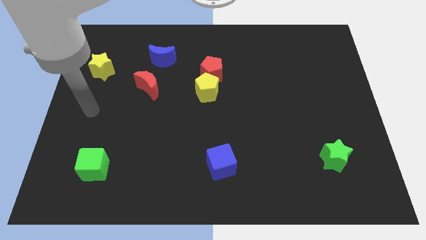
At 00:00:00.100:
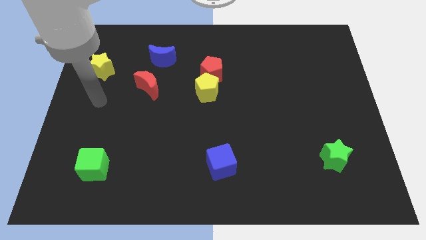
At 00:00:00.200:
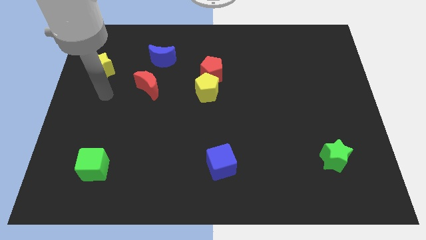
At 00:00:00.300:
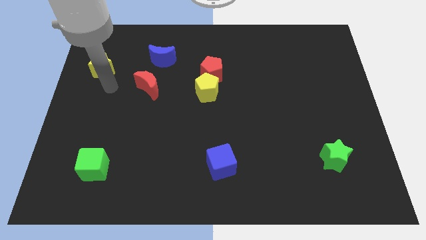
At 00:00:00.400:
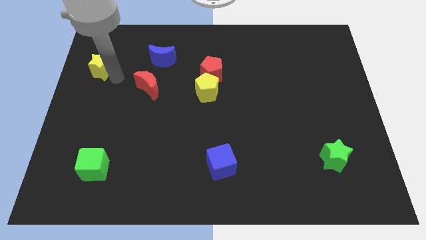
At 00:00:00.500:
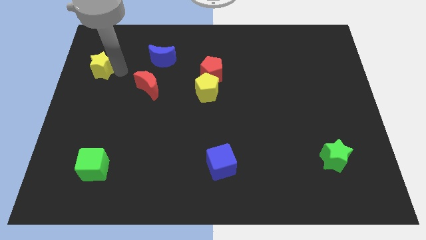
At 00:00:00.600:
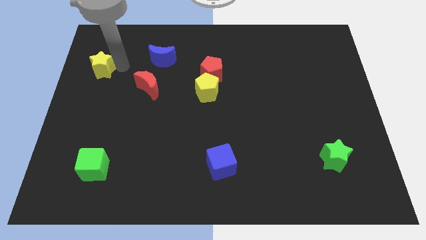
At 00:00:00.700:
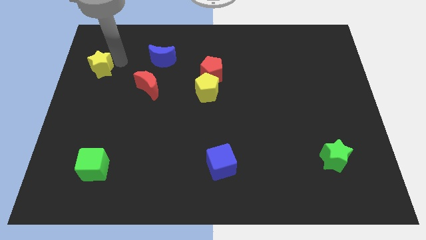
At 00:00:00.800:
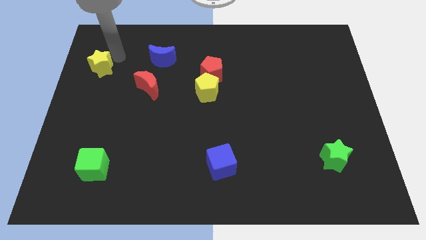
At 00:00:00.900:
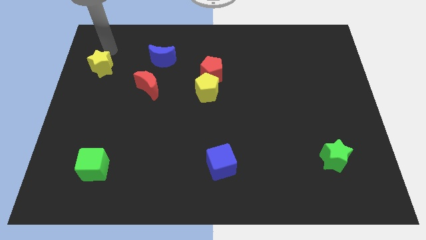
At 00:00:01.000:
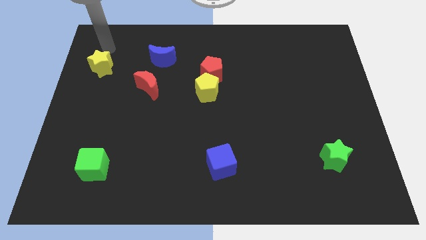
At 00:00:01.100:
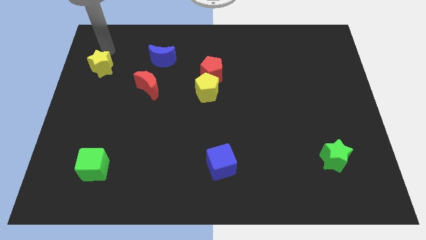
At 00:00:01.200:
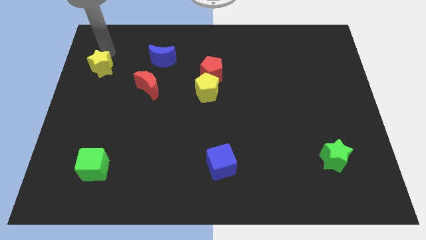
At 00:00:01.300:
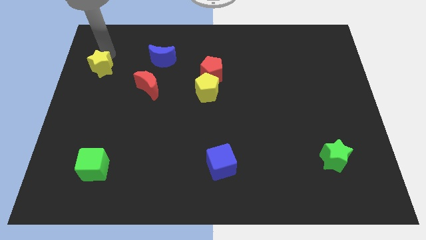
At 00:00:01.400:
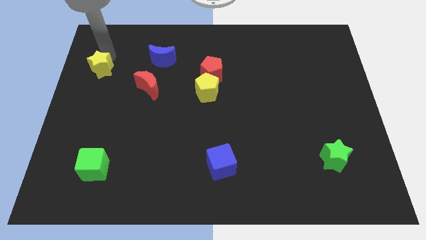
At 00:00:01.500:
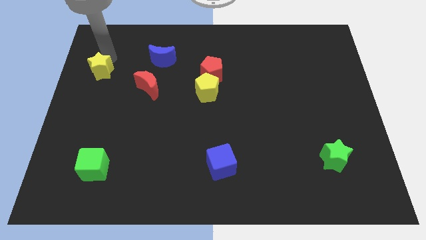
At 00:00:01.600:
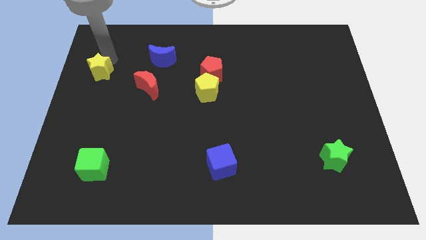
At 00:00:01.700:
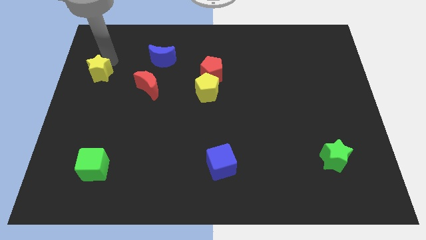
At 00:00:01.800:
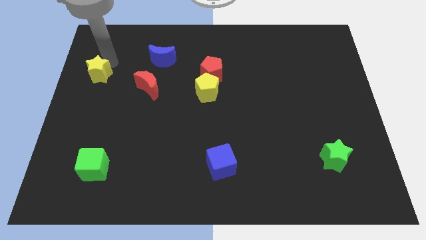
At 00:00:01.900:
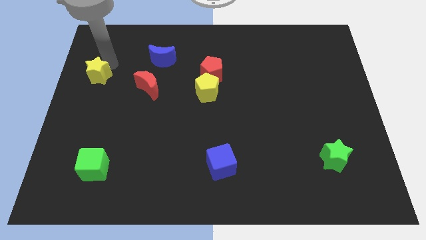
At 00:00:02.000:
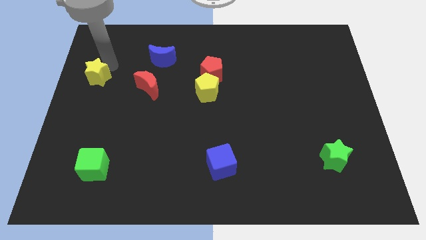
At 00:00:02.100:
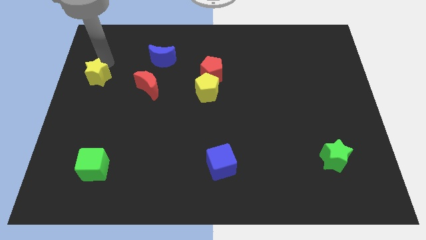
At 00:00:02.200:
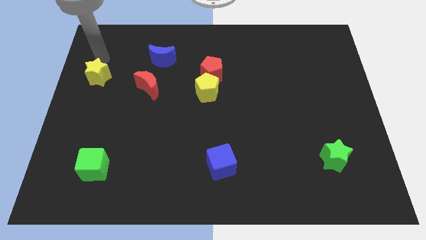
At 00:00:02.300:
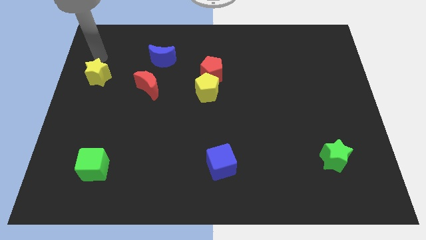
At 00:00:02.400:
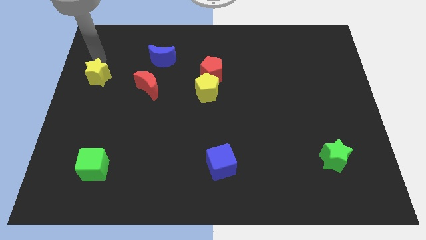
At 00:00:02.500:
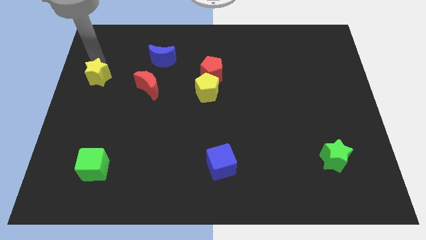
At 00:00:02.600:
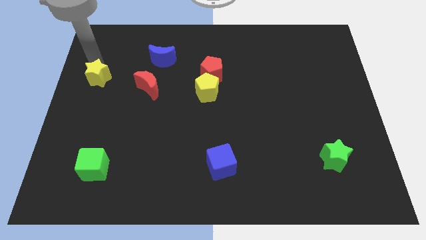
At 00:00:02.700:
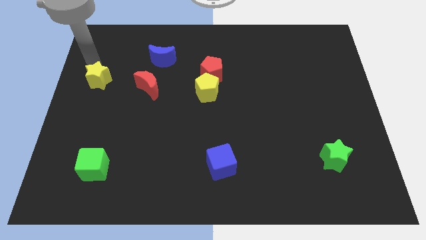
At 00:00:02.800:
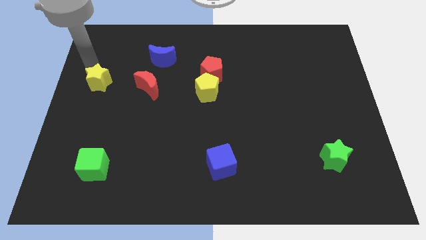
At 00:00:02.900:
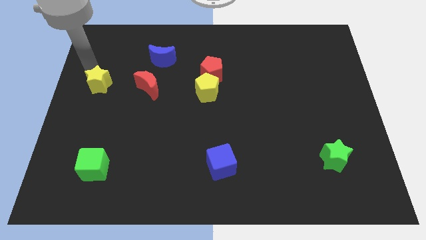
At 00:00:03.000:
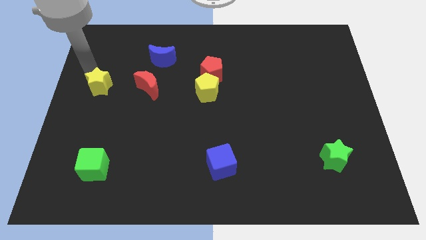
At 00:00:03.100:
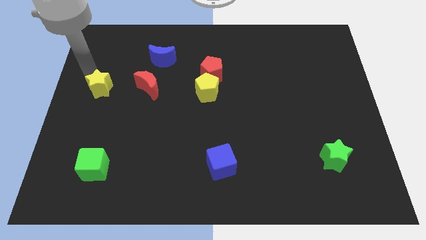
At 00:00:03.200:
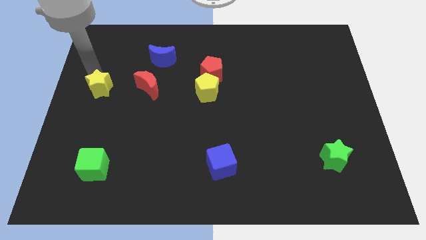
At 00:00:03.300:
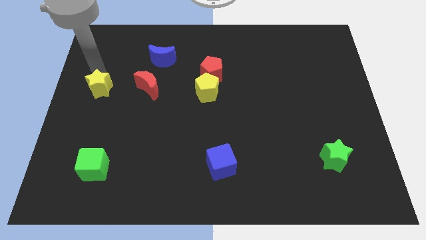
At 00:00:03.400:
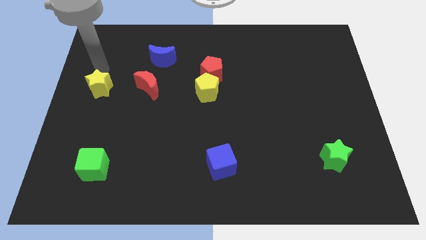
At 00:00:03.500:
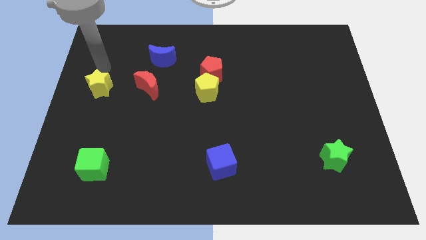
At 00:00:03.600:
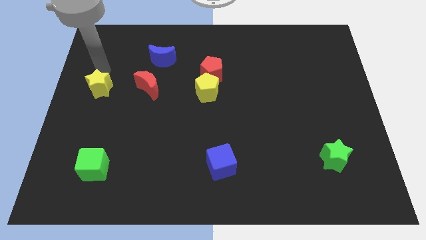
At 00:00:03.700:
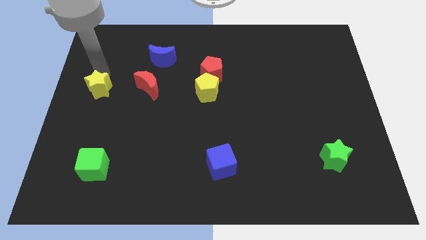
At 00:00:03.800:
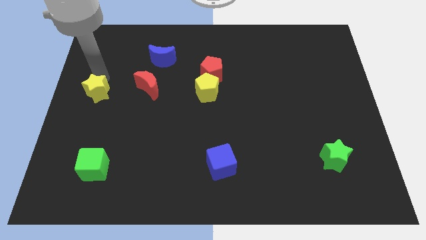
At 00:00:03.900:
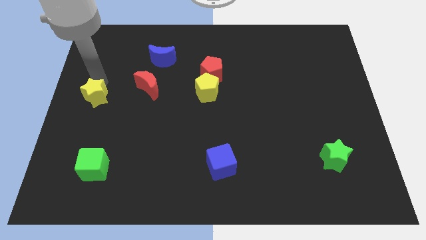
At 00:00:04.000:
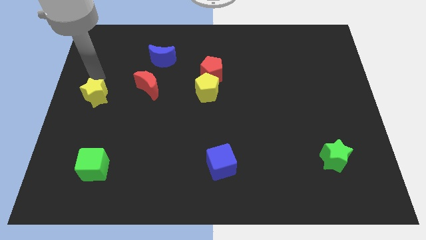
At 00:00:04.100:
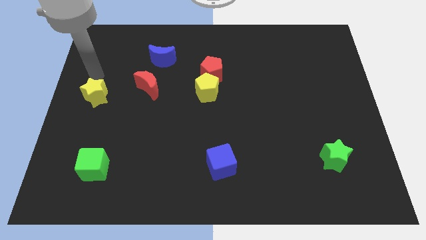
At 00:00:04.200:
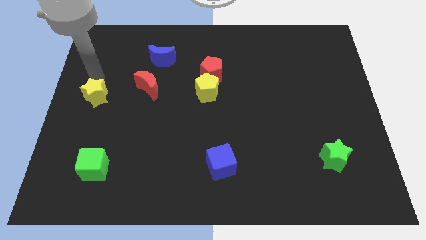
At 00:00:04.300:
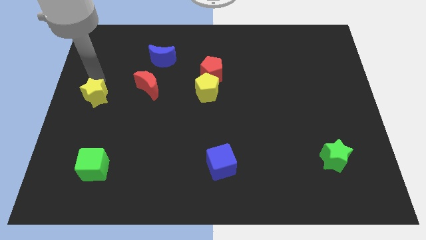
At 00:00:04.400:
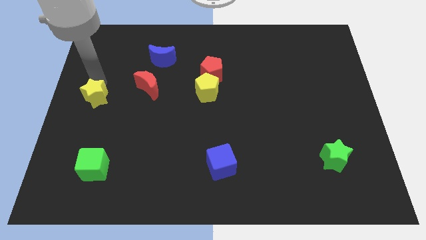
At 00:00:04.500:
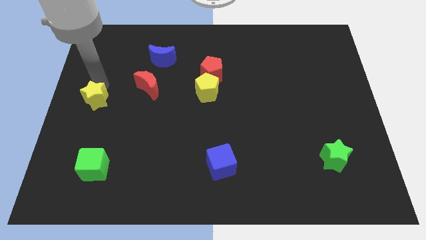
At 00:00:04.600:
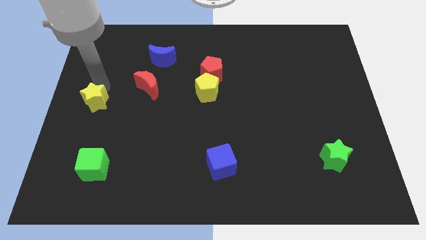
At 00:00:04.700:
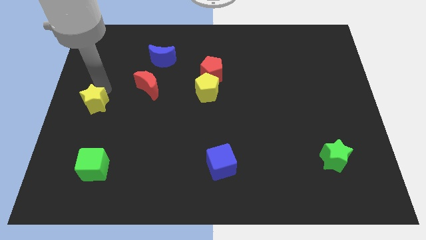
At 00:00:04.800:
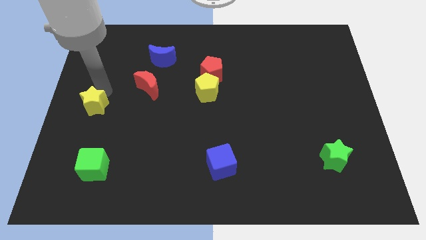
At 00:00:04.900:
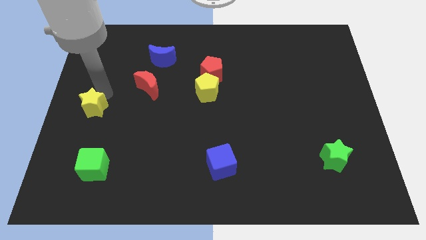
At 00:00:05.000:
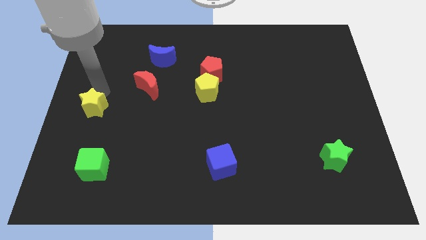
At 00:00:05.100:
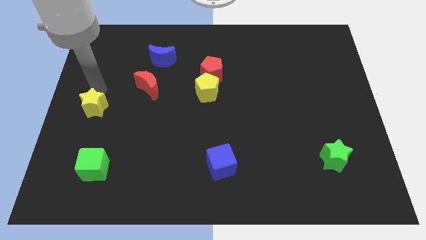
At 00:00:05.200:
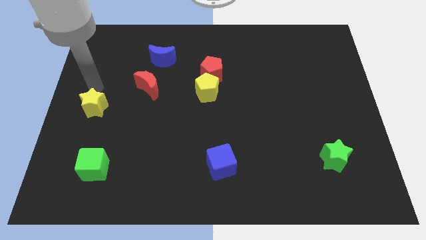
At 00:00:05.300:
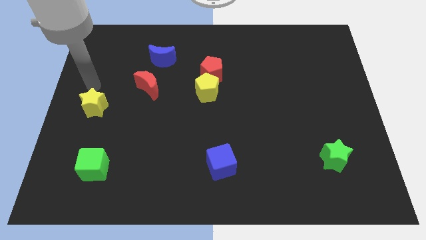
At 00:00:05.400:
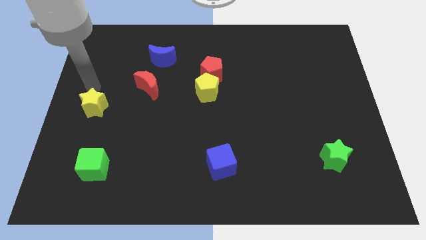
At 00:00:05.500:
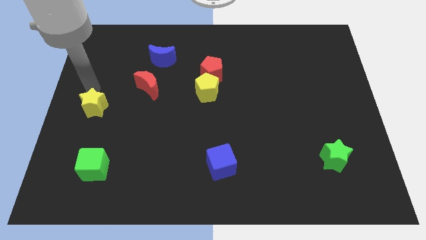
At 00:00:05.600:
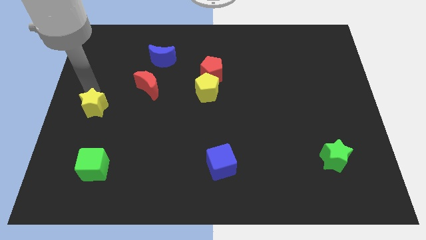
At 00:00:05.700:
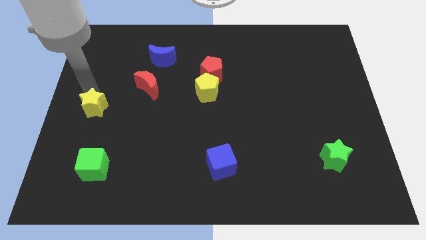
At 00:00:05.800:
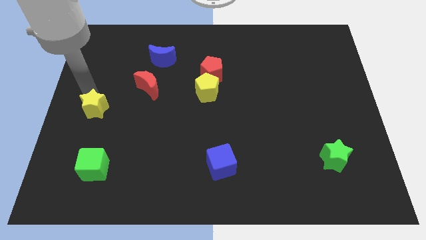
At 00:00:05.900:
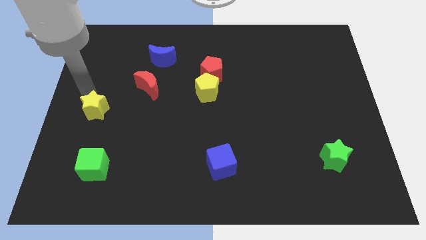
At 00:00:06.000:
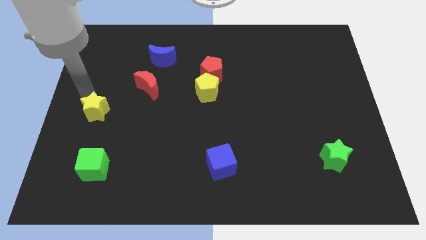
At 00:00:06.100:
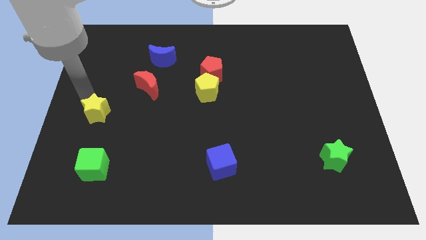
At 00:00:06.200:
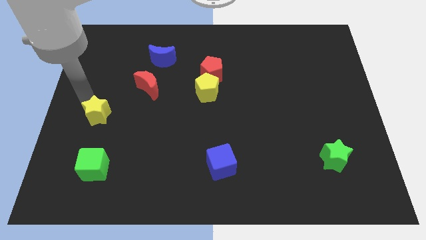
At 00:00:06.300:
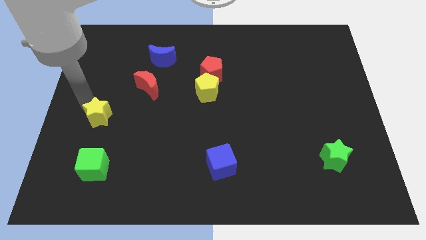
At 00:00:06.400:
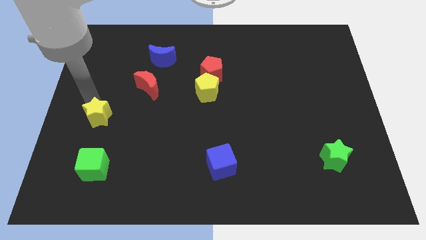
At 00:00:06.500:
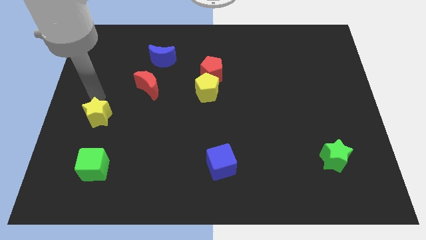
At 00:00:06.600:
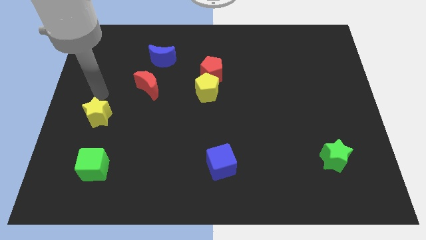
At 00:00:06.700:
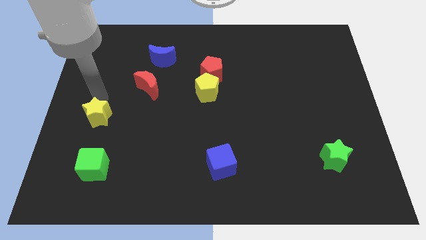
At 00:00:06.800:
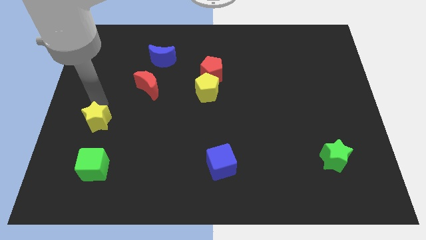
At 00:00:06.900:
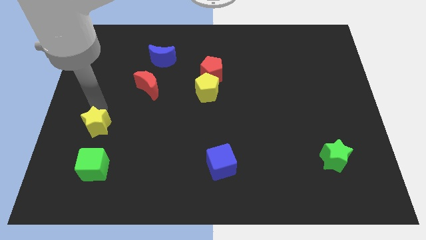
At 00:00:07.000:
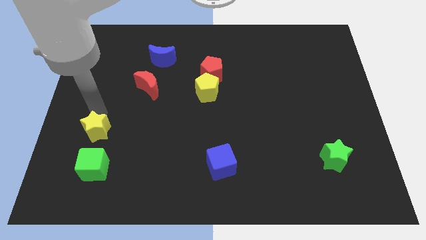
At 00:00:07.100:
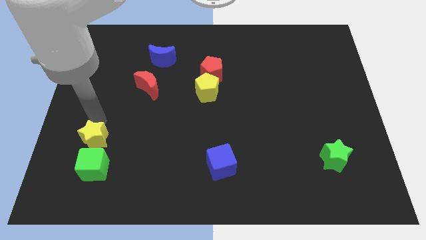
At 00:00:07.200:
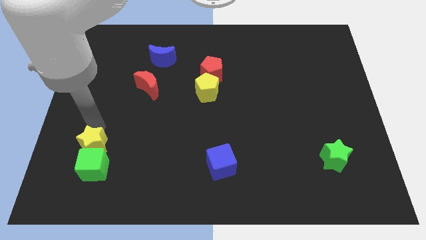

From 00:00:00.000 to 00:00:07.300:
push the yellow star towards the green cube
